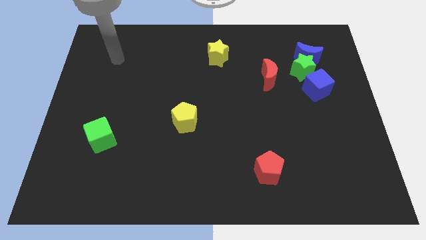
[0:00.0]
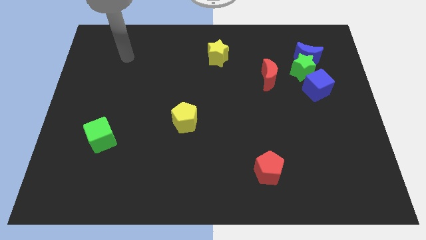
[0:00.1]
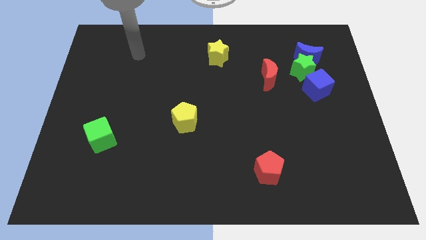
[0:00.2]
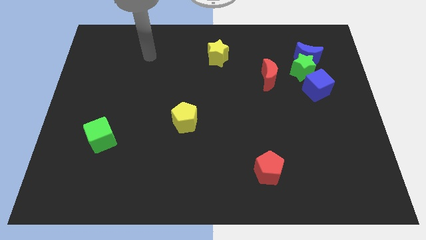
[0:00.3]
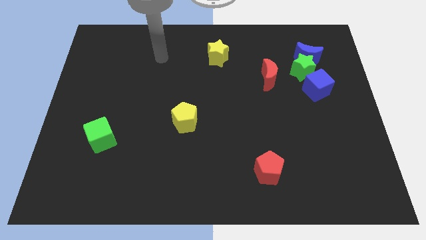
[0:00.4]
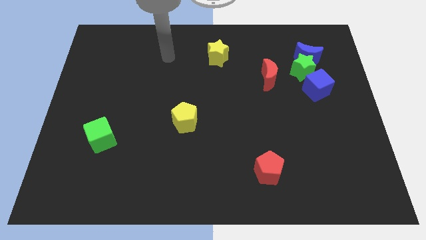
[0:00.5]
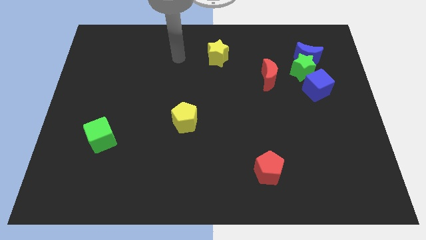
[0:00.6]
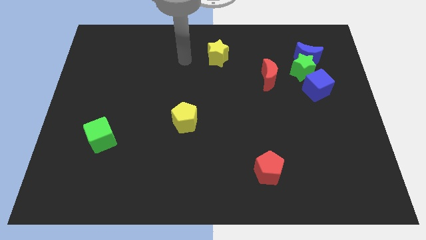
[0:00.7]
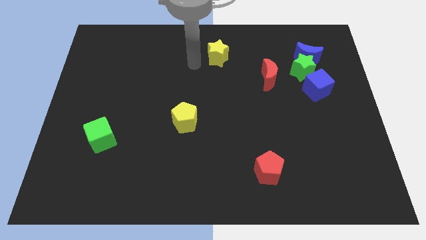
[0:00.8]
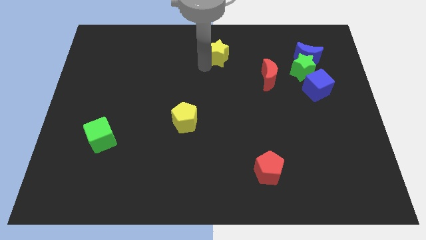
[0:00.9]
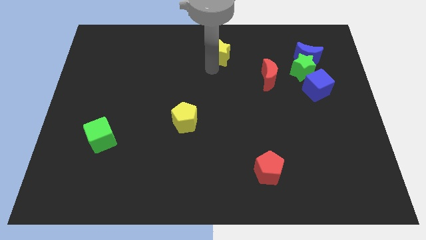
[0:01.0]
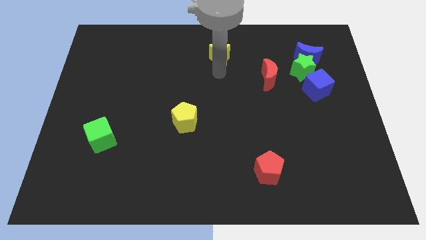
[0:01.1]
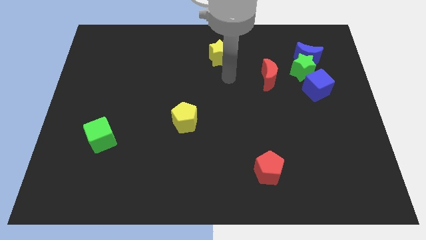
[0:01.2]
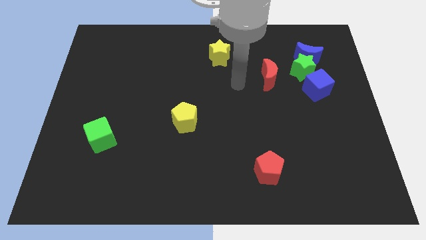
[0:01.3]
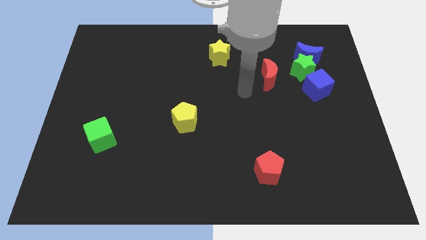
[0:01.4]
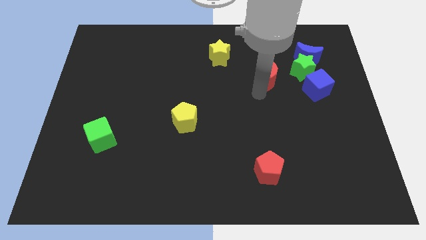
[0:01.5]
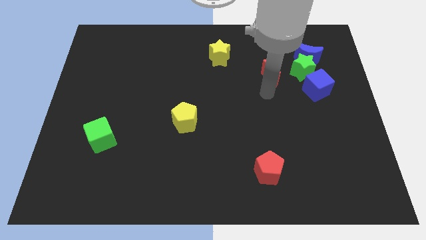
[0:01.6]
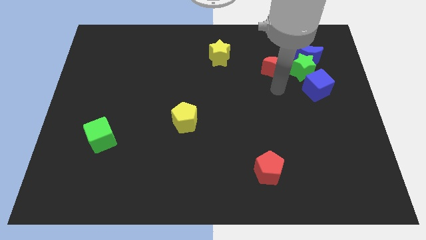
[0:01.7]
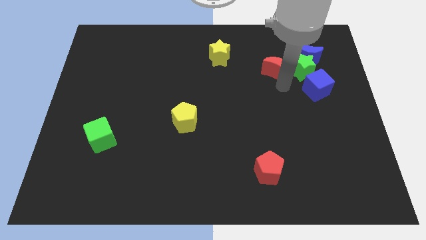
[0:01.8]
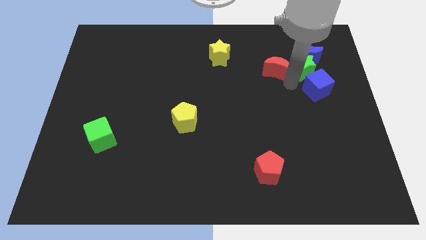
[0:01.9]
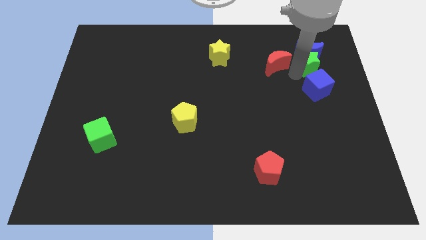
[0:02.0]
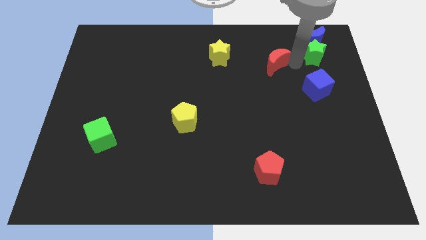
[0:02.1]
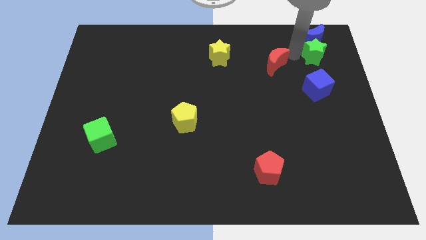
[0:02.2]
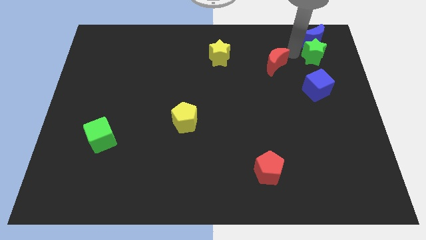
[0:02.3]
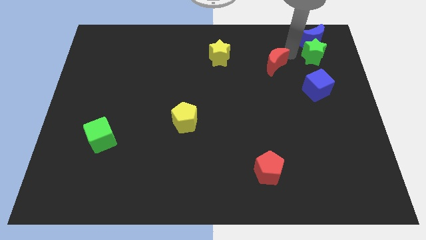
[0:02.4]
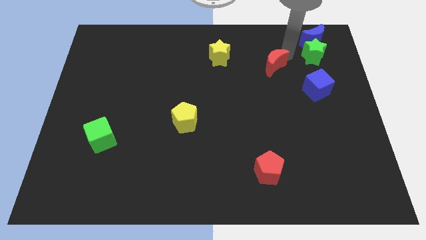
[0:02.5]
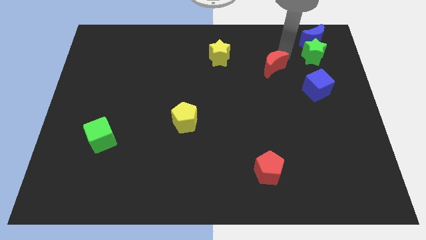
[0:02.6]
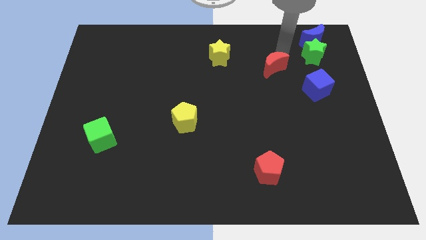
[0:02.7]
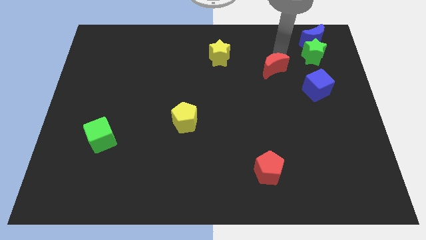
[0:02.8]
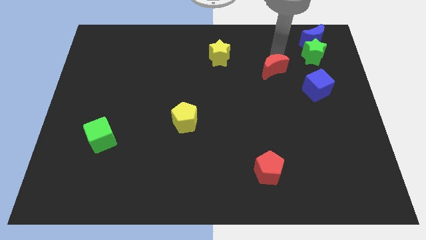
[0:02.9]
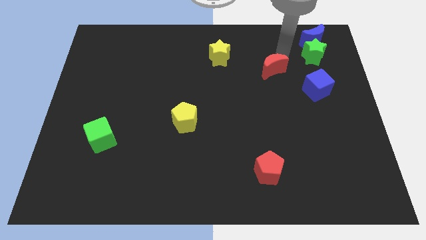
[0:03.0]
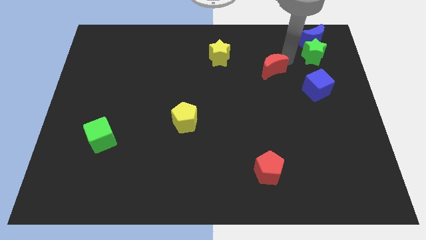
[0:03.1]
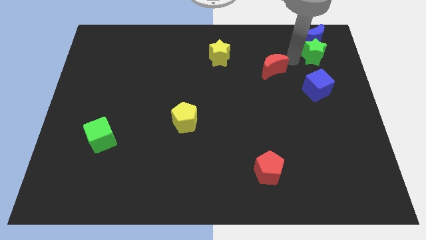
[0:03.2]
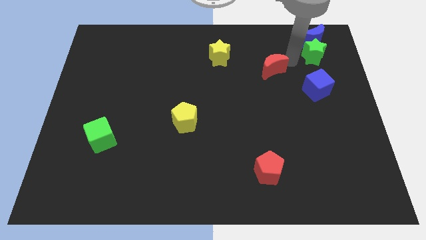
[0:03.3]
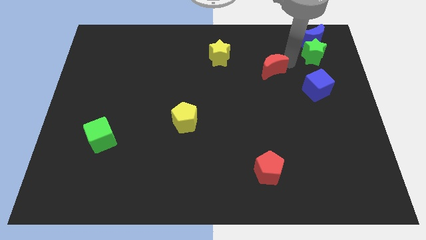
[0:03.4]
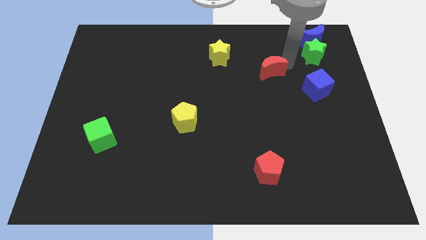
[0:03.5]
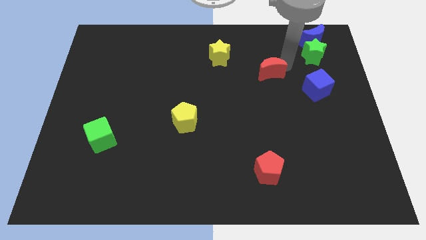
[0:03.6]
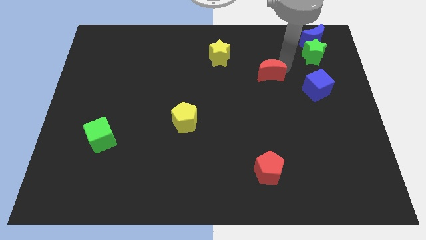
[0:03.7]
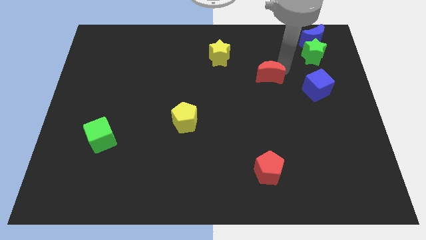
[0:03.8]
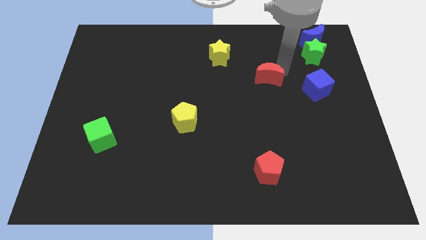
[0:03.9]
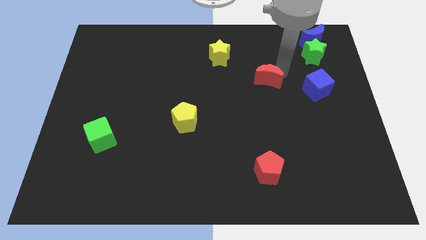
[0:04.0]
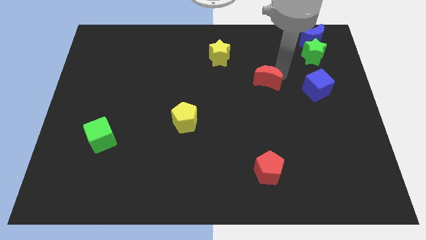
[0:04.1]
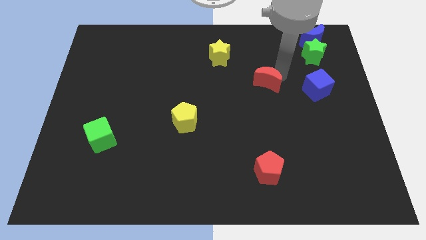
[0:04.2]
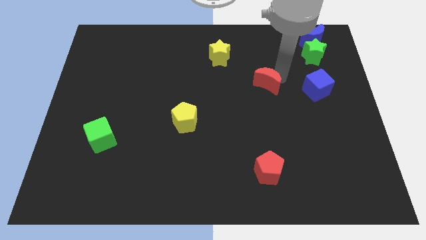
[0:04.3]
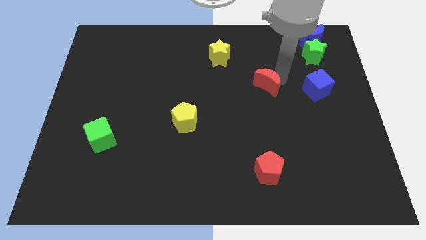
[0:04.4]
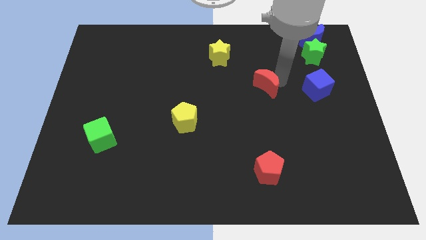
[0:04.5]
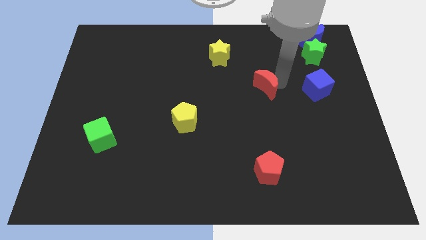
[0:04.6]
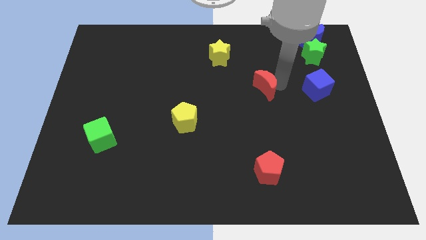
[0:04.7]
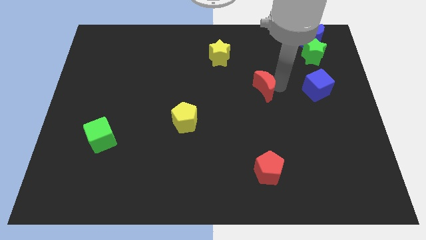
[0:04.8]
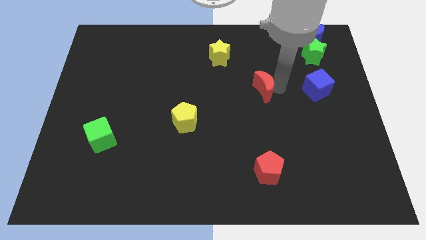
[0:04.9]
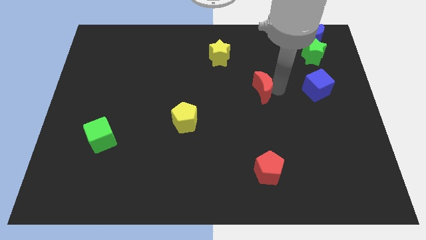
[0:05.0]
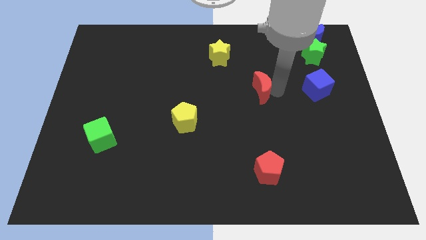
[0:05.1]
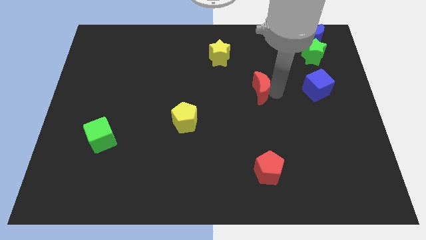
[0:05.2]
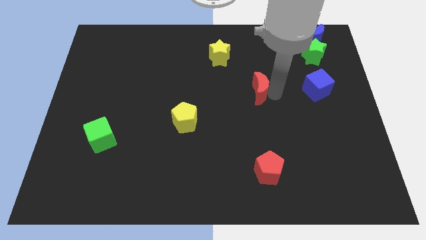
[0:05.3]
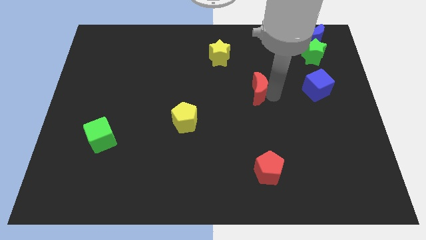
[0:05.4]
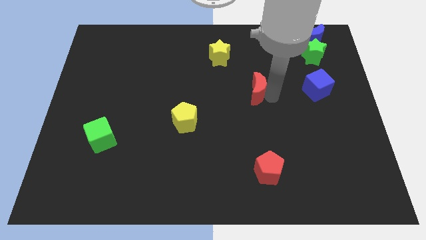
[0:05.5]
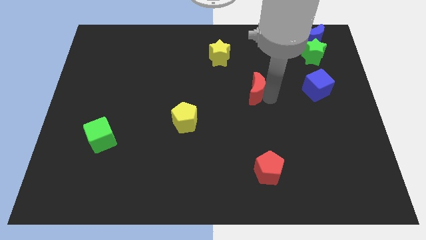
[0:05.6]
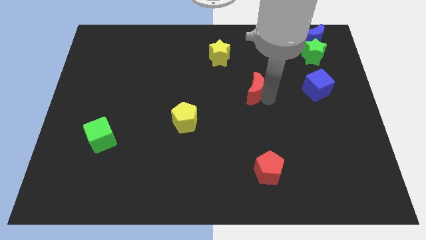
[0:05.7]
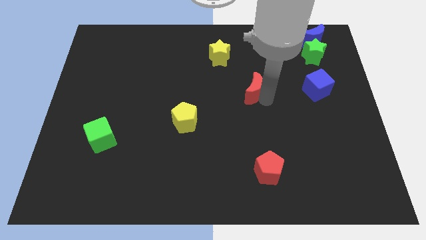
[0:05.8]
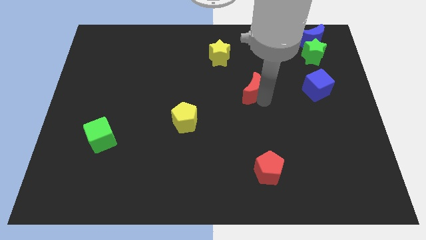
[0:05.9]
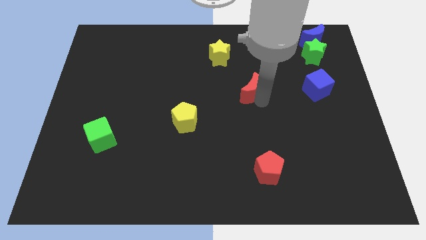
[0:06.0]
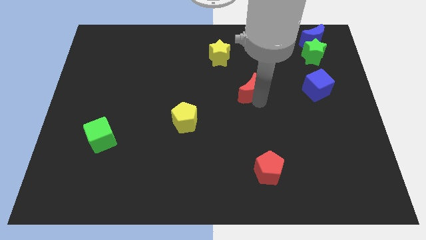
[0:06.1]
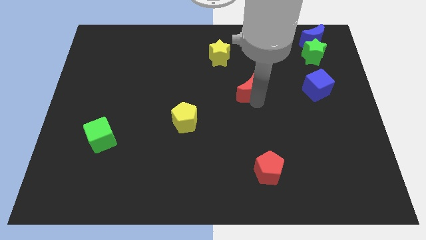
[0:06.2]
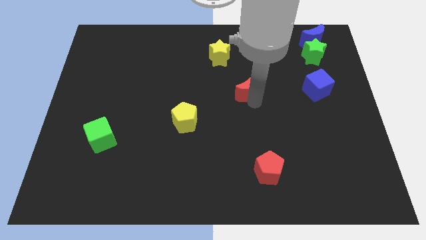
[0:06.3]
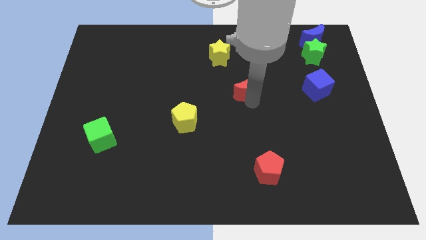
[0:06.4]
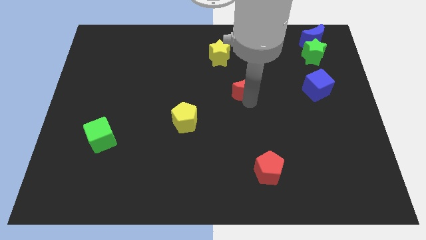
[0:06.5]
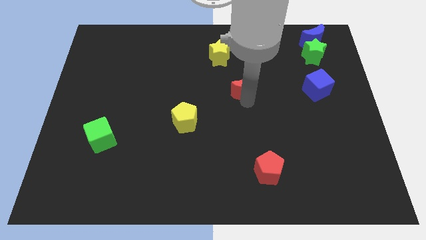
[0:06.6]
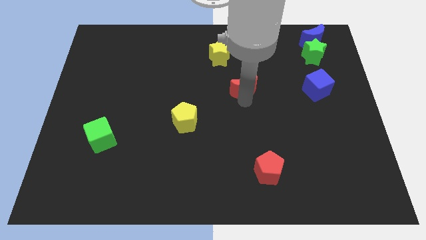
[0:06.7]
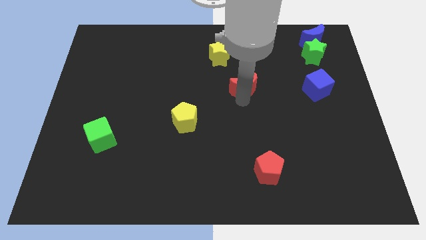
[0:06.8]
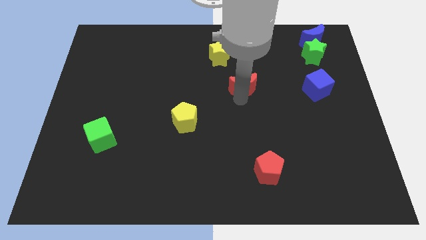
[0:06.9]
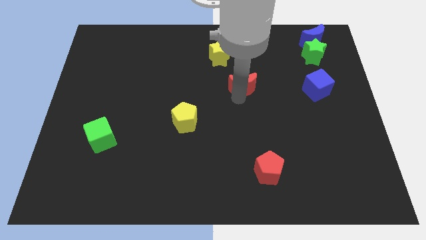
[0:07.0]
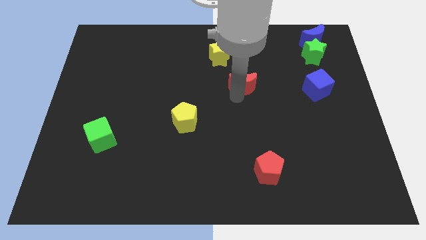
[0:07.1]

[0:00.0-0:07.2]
slightly push the red moon to the left

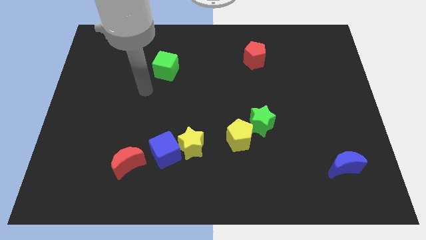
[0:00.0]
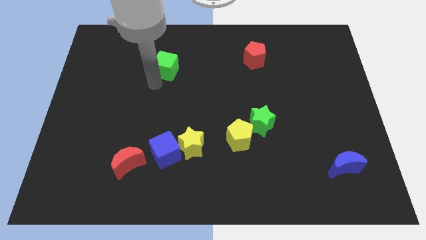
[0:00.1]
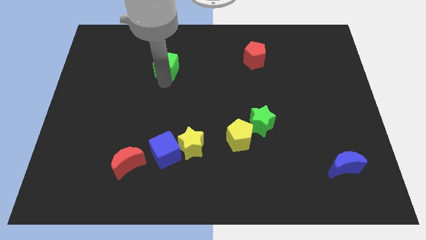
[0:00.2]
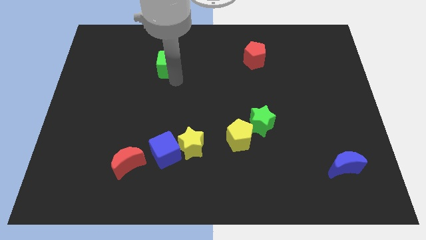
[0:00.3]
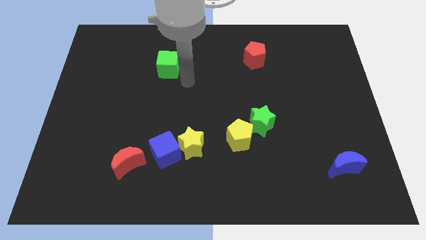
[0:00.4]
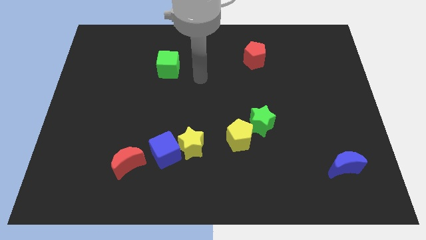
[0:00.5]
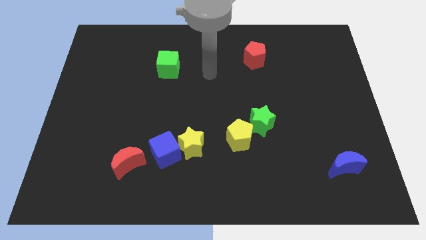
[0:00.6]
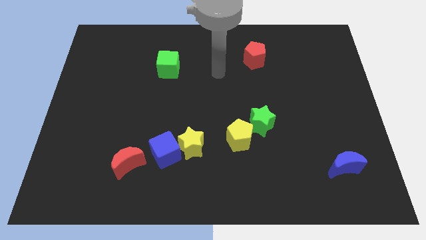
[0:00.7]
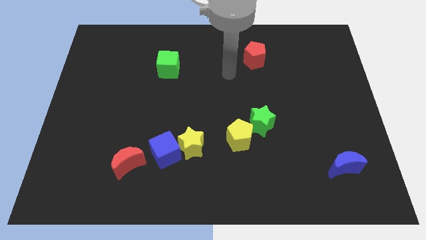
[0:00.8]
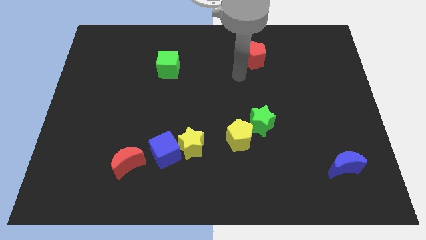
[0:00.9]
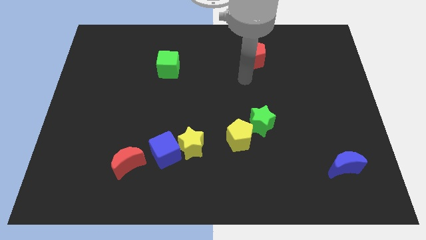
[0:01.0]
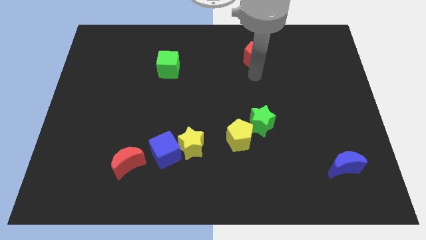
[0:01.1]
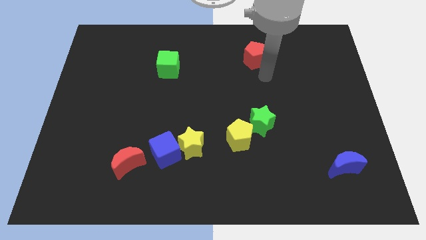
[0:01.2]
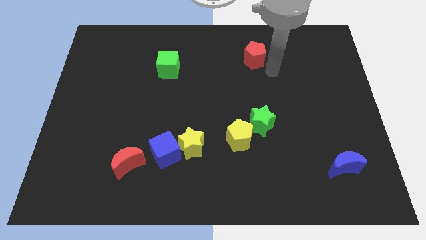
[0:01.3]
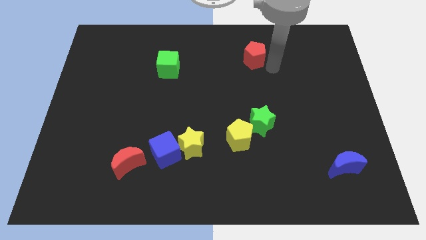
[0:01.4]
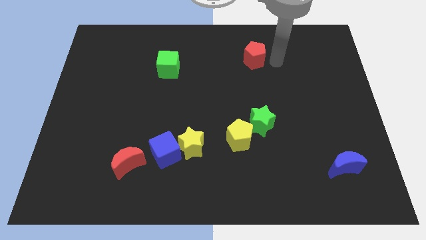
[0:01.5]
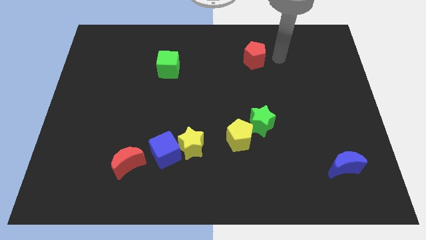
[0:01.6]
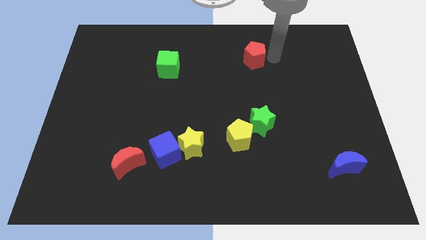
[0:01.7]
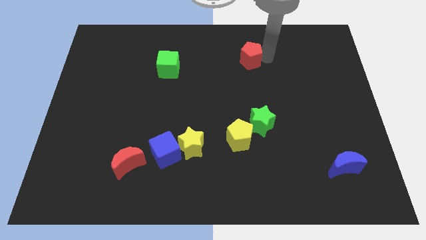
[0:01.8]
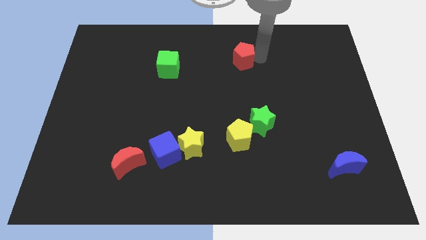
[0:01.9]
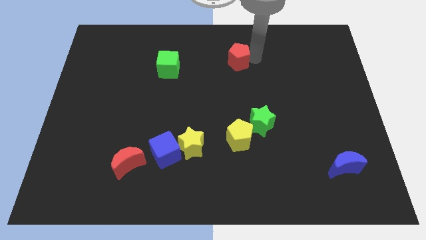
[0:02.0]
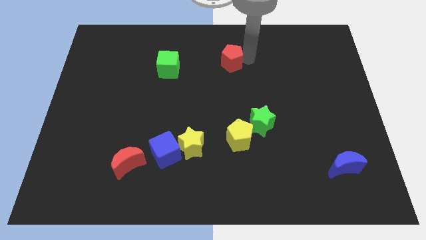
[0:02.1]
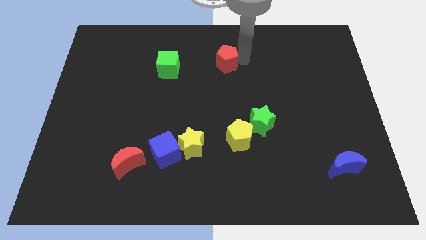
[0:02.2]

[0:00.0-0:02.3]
slightly push the red pentagon left
